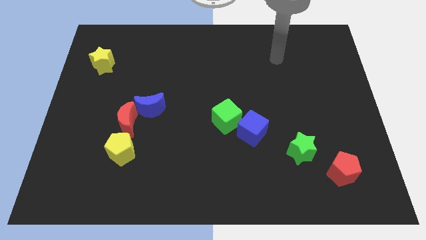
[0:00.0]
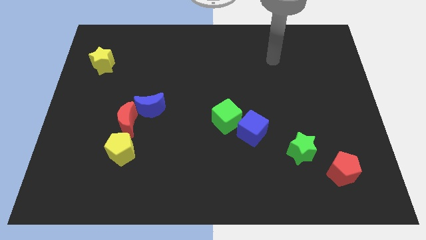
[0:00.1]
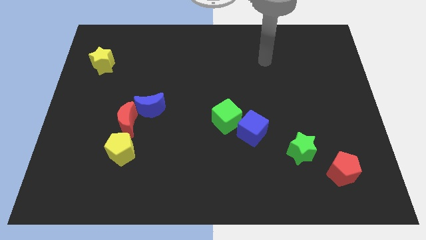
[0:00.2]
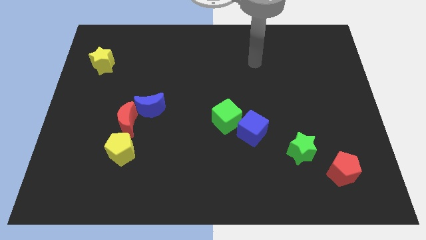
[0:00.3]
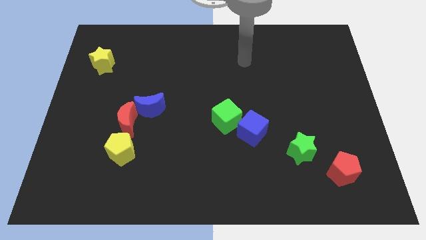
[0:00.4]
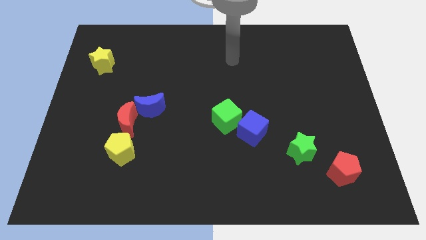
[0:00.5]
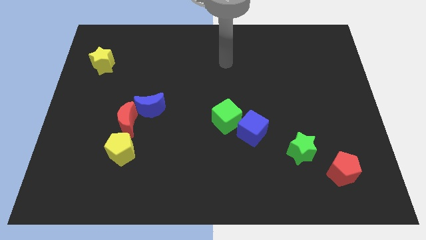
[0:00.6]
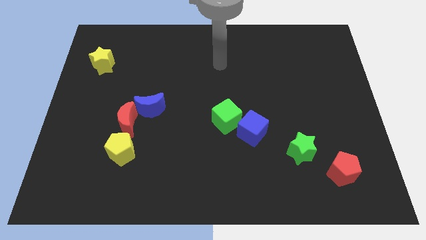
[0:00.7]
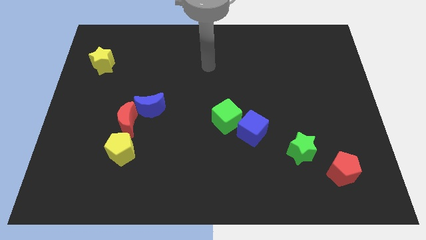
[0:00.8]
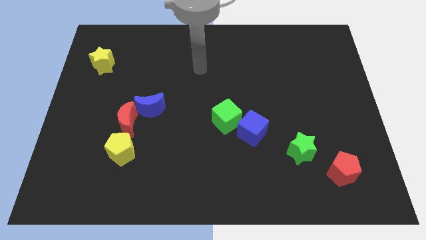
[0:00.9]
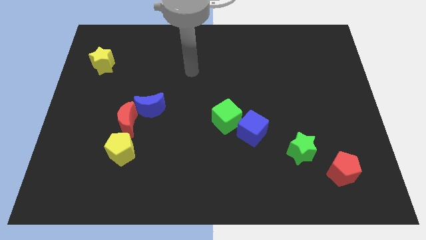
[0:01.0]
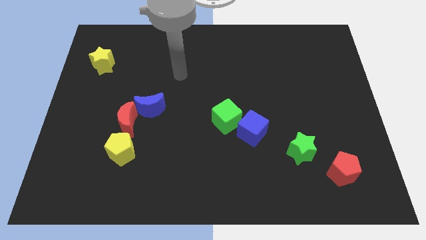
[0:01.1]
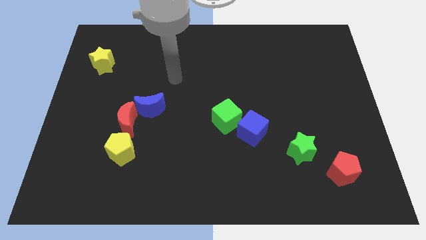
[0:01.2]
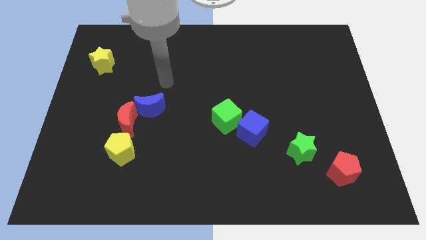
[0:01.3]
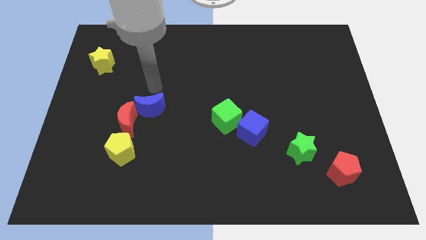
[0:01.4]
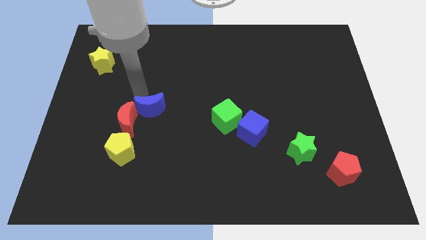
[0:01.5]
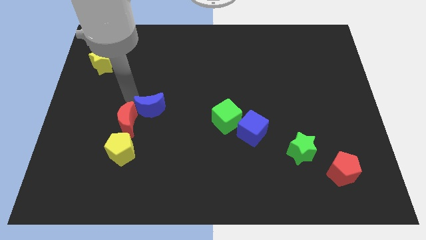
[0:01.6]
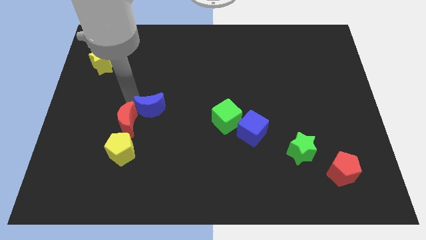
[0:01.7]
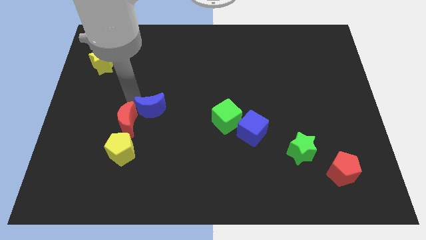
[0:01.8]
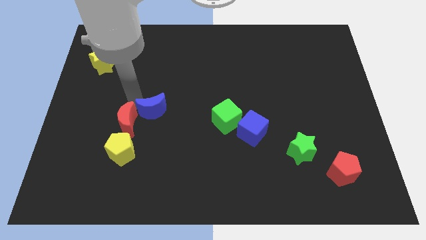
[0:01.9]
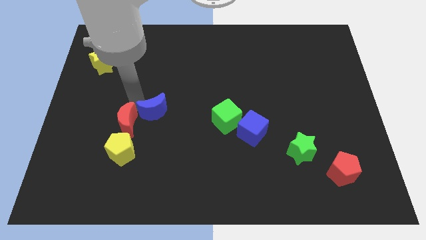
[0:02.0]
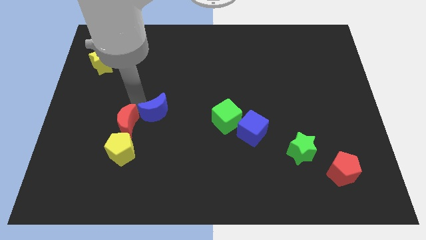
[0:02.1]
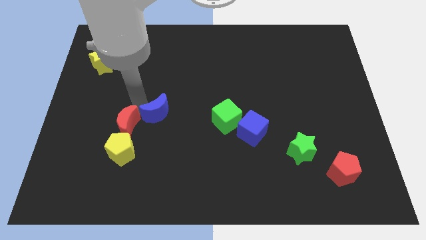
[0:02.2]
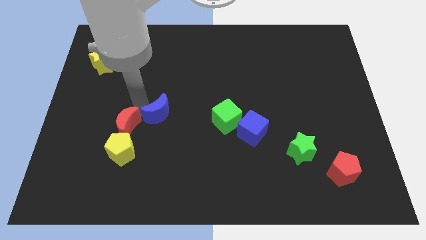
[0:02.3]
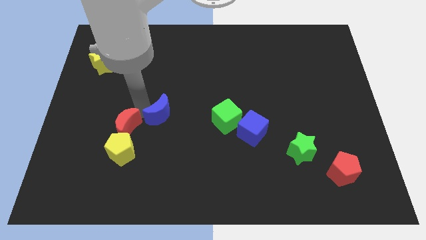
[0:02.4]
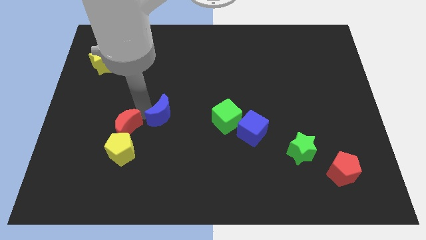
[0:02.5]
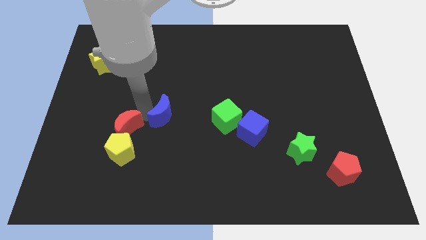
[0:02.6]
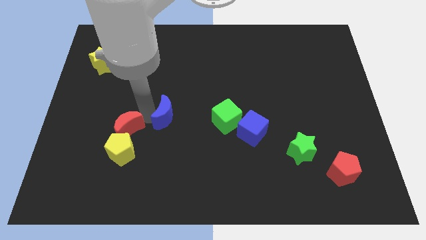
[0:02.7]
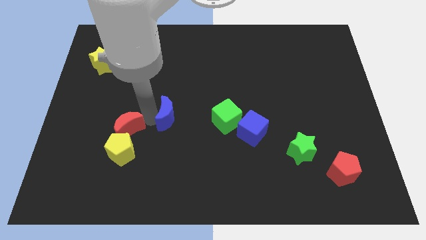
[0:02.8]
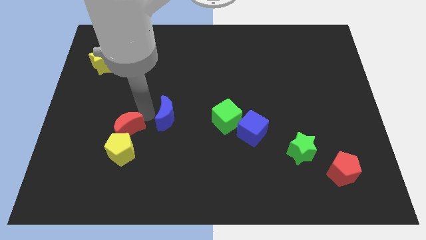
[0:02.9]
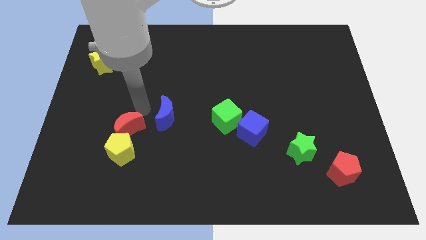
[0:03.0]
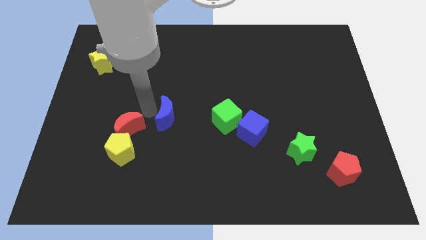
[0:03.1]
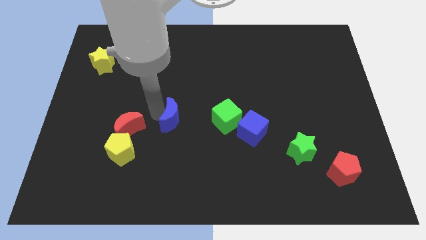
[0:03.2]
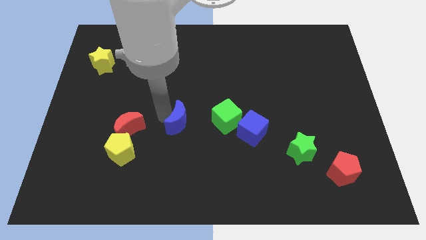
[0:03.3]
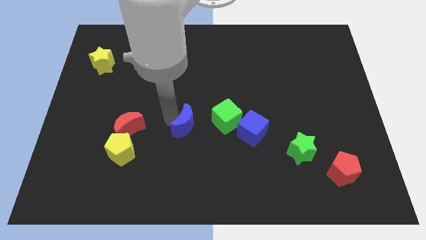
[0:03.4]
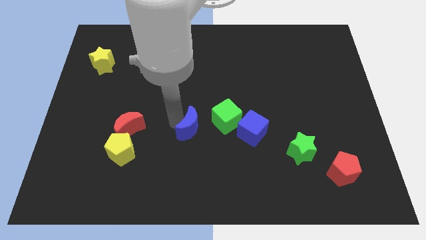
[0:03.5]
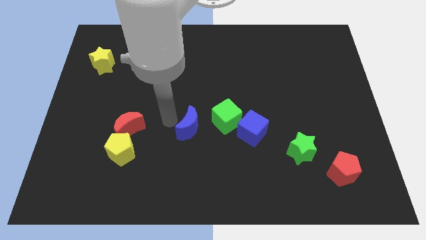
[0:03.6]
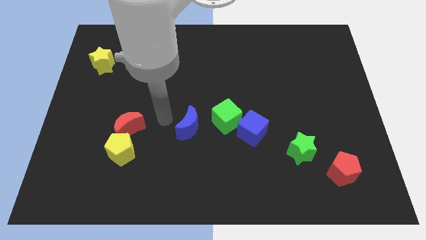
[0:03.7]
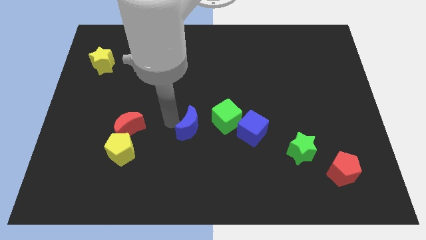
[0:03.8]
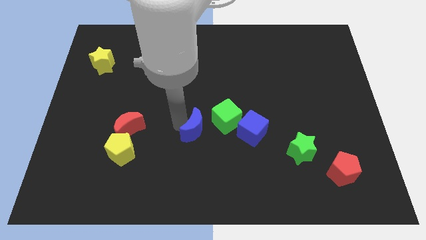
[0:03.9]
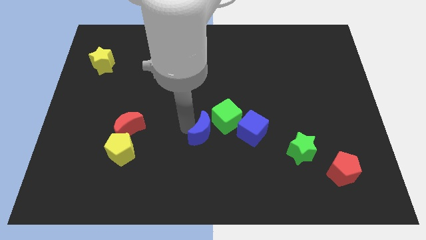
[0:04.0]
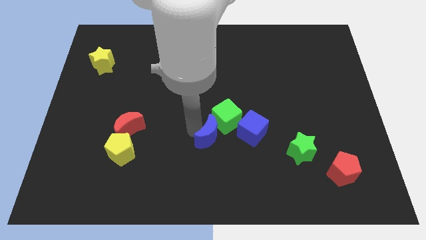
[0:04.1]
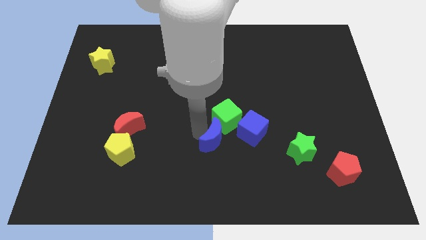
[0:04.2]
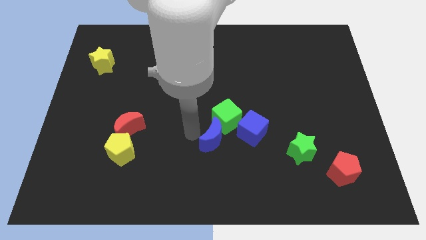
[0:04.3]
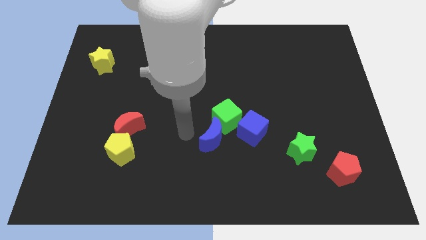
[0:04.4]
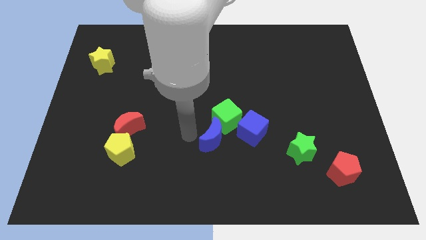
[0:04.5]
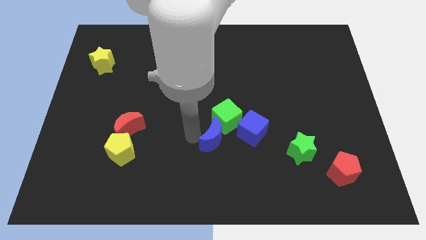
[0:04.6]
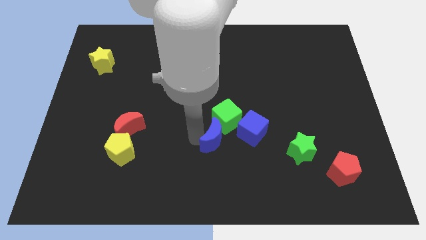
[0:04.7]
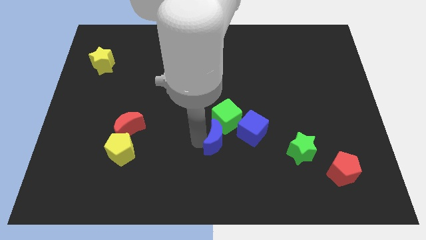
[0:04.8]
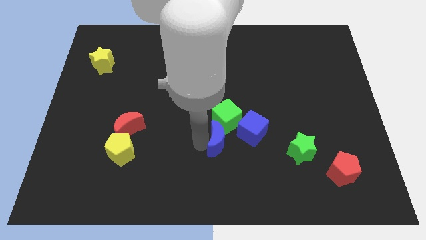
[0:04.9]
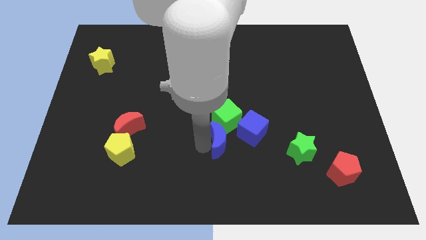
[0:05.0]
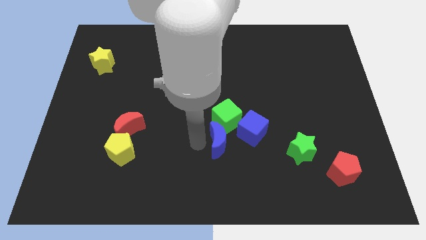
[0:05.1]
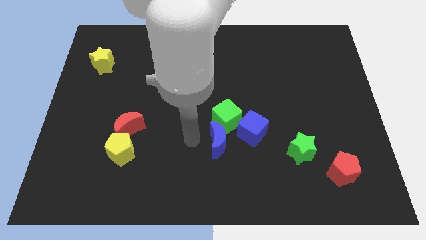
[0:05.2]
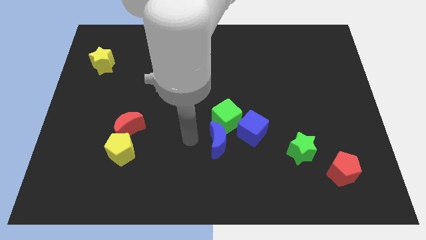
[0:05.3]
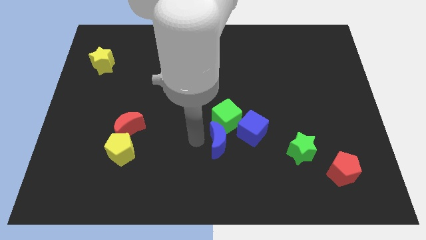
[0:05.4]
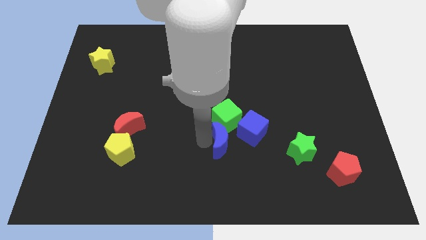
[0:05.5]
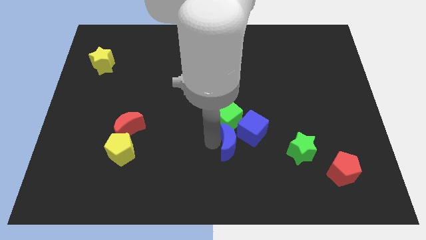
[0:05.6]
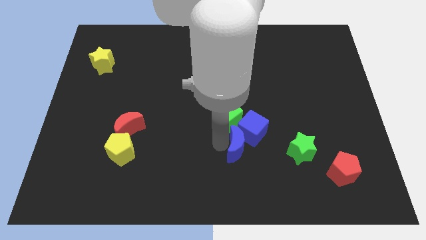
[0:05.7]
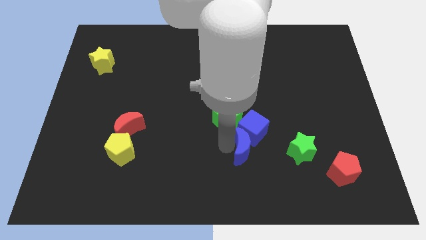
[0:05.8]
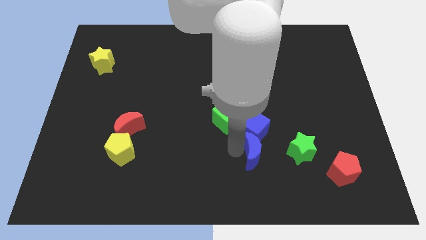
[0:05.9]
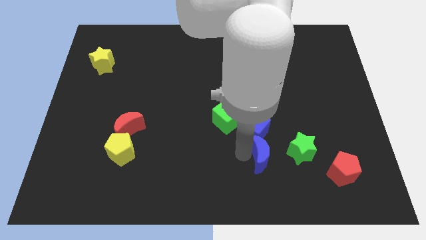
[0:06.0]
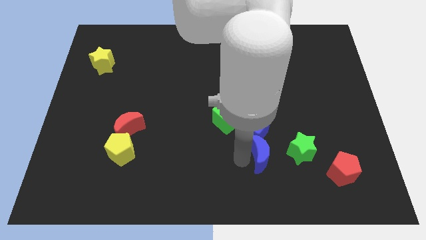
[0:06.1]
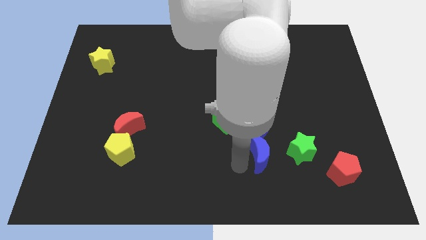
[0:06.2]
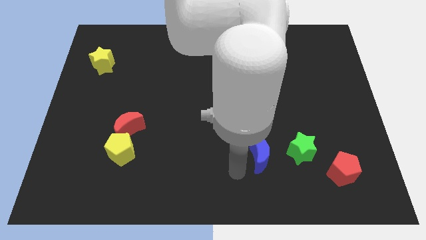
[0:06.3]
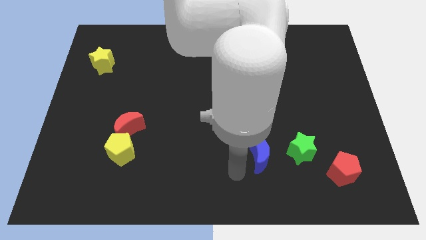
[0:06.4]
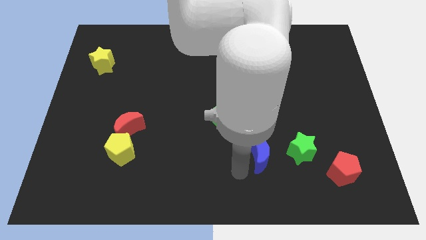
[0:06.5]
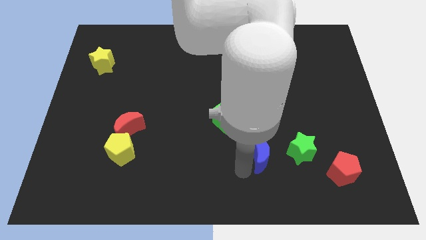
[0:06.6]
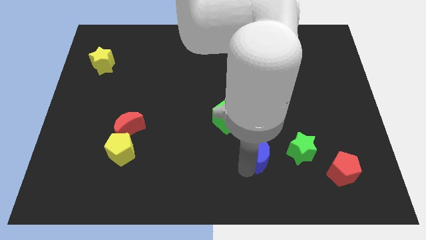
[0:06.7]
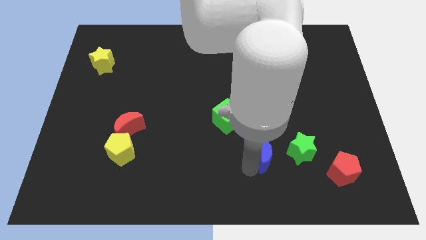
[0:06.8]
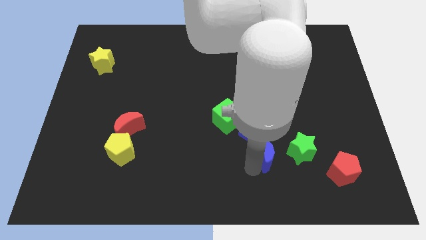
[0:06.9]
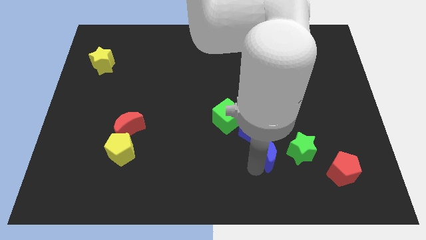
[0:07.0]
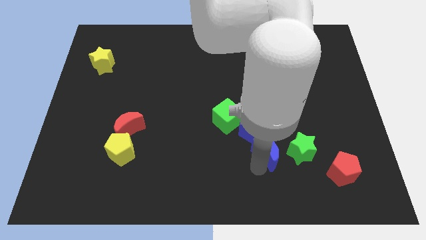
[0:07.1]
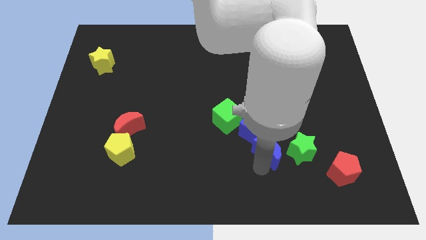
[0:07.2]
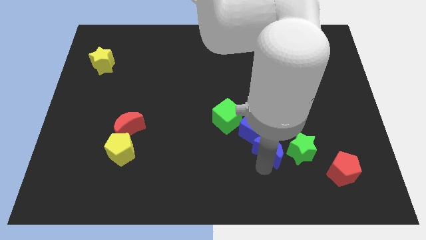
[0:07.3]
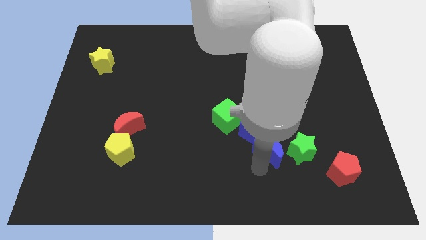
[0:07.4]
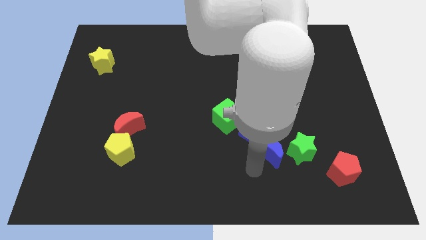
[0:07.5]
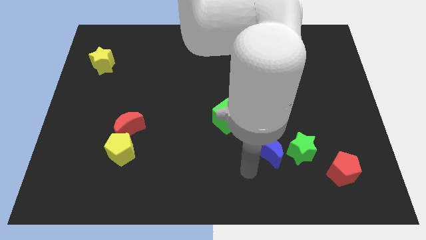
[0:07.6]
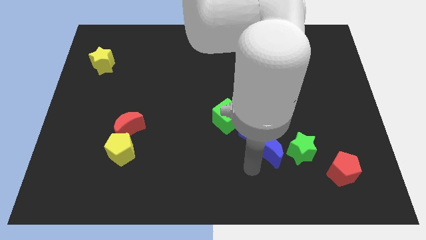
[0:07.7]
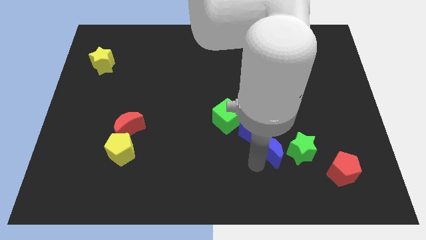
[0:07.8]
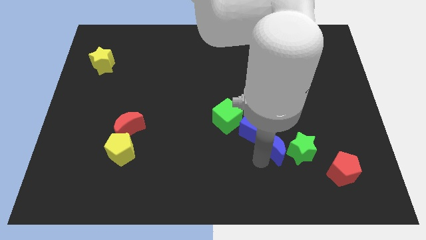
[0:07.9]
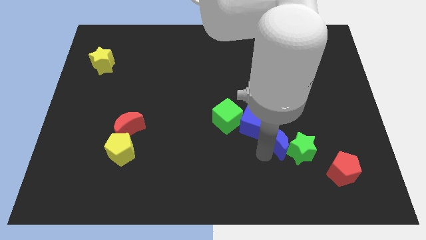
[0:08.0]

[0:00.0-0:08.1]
push the blue moon next to the green star
